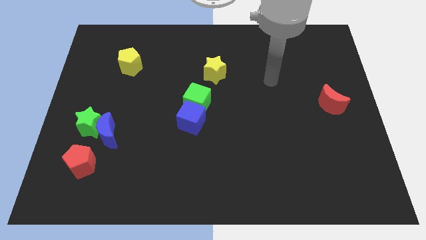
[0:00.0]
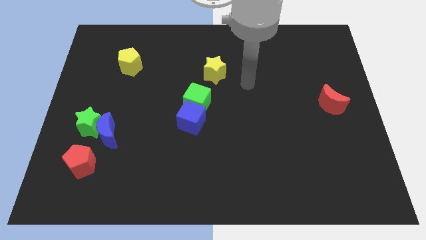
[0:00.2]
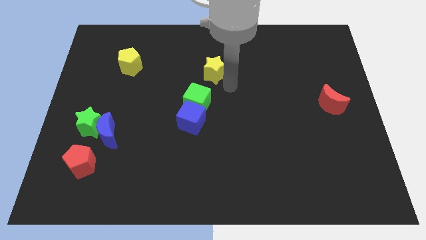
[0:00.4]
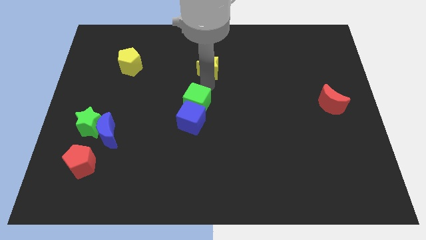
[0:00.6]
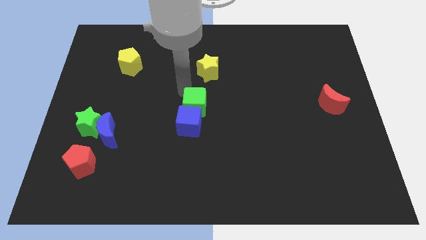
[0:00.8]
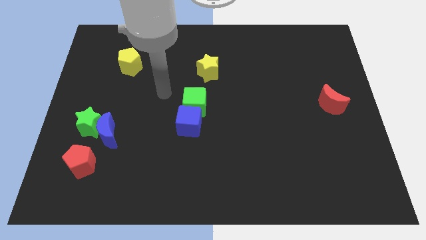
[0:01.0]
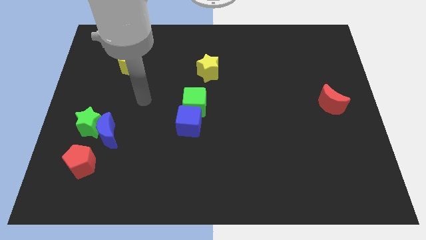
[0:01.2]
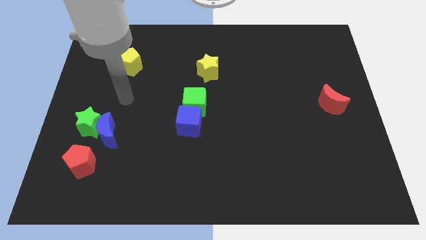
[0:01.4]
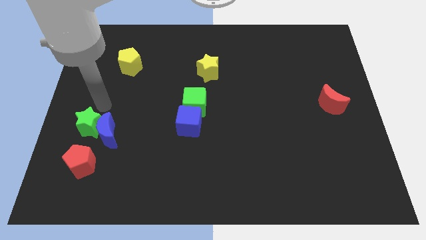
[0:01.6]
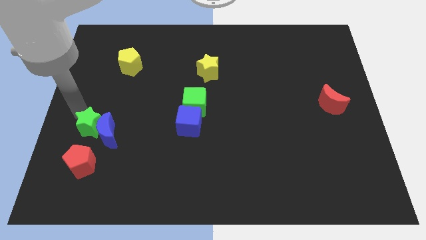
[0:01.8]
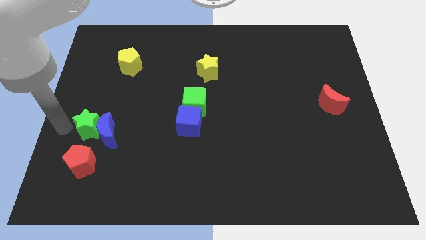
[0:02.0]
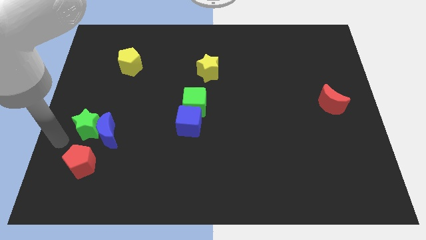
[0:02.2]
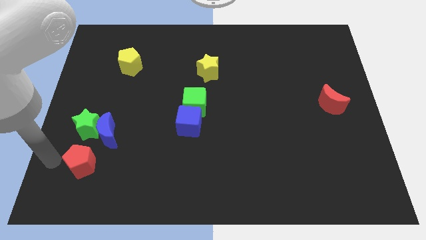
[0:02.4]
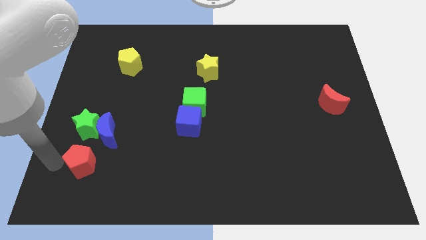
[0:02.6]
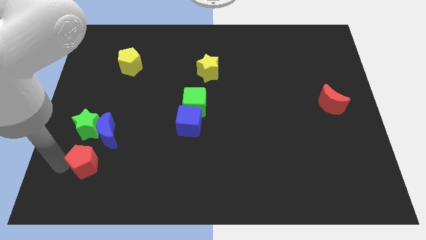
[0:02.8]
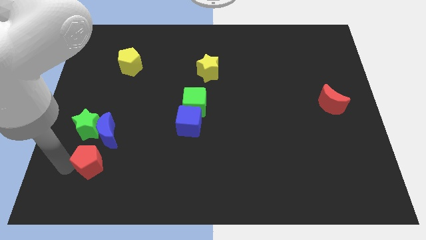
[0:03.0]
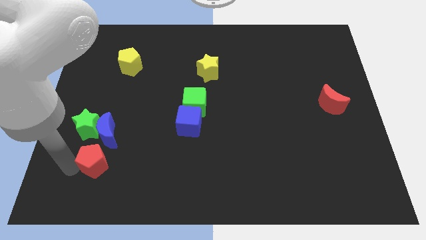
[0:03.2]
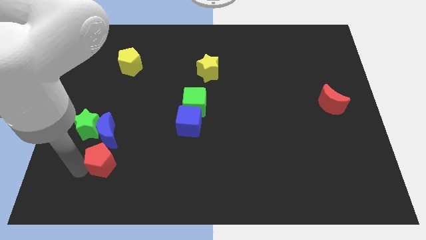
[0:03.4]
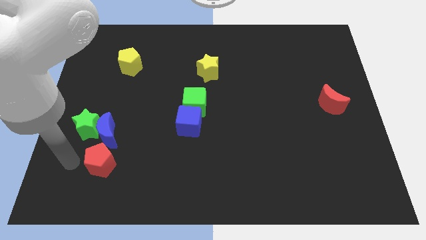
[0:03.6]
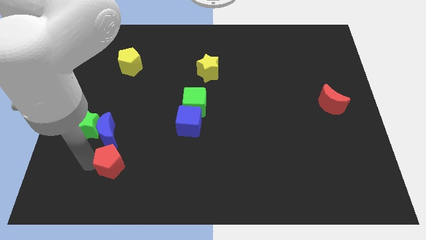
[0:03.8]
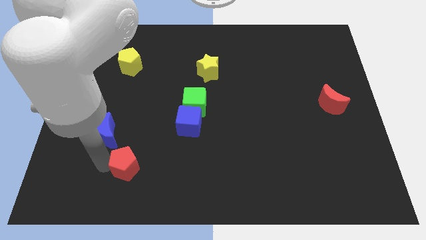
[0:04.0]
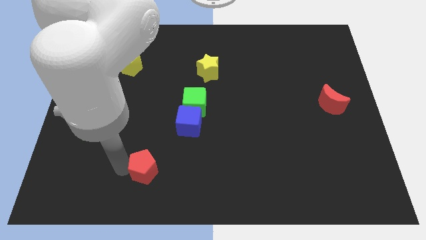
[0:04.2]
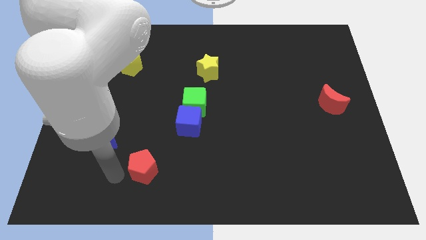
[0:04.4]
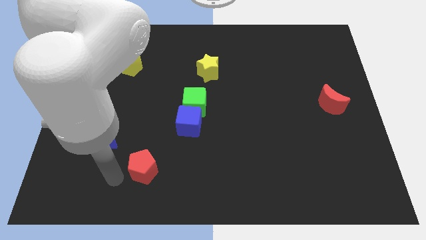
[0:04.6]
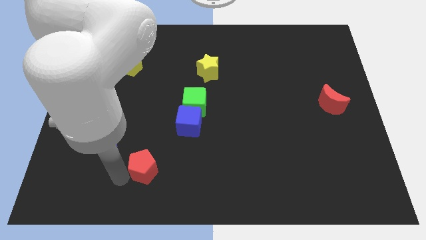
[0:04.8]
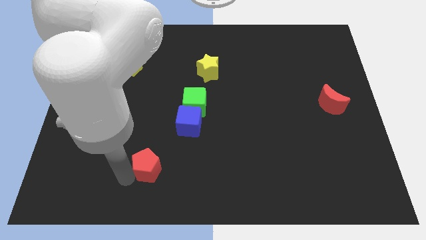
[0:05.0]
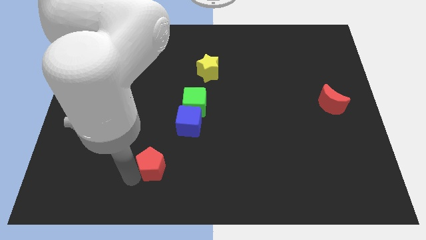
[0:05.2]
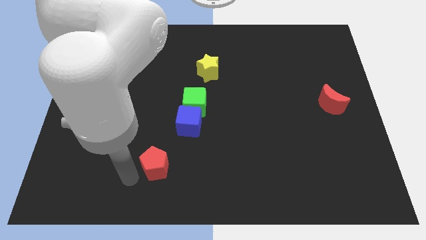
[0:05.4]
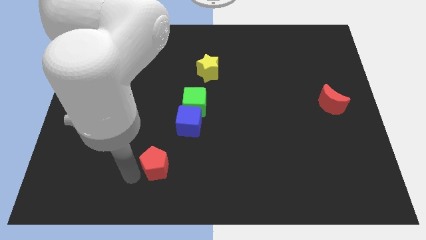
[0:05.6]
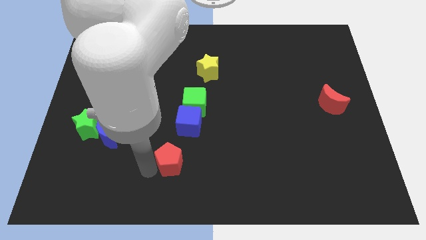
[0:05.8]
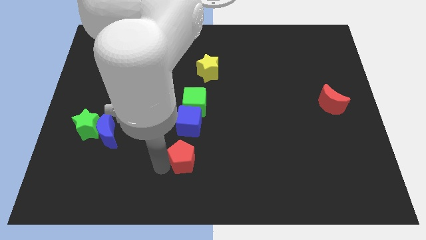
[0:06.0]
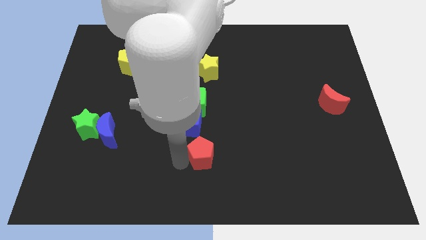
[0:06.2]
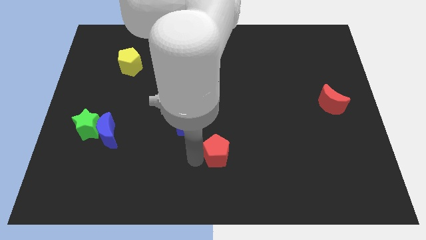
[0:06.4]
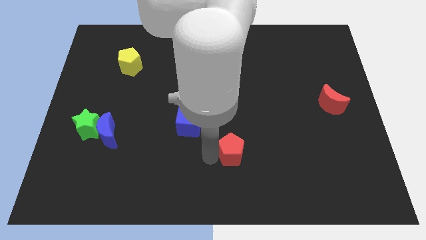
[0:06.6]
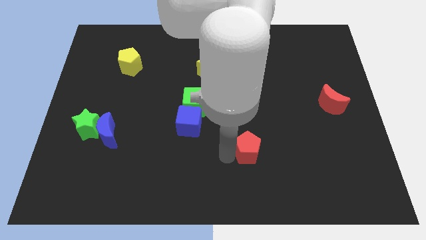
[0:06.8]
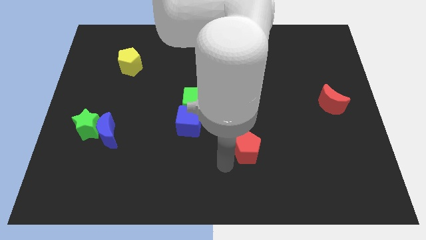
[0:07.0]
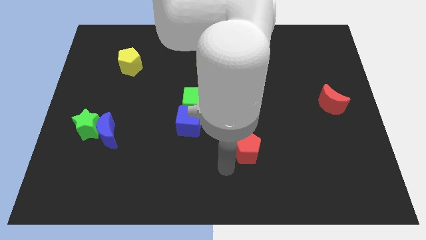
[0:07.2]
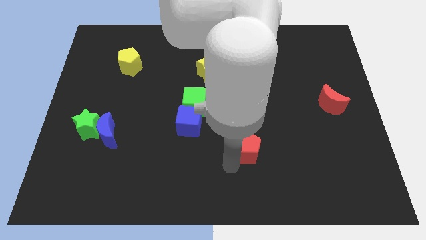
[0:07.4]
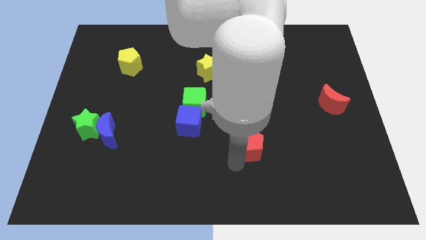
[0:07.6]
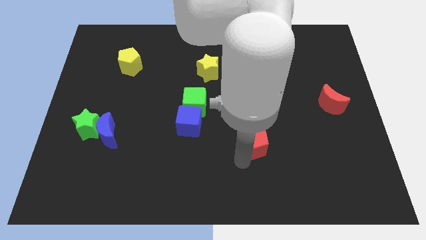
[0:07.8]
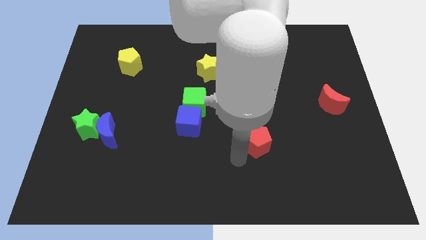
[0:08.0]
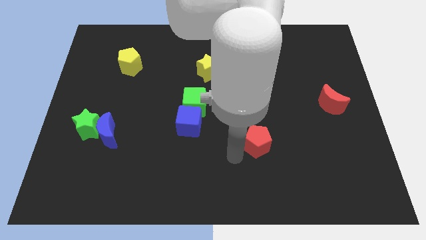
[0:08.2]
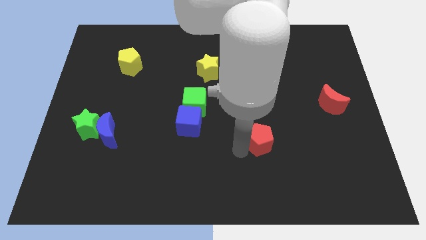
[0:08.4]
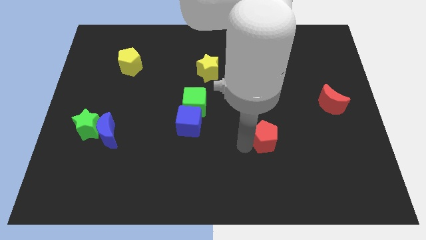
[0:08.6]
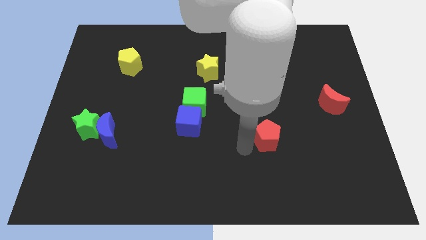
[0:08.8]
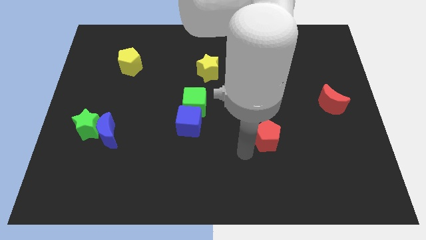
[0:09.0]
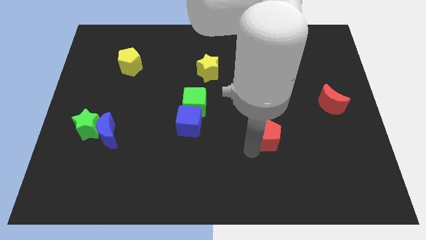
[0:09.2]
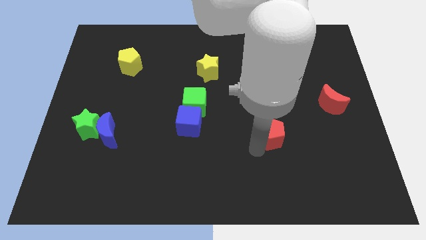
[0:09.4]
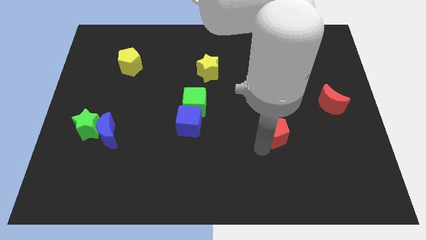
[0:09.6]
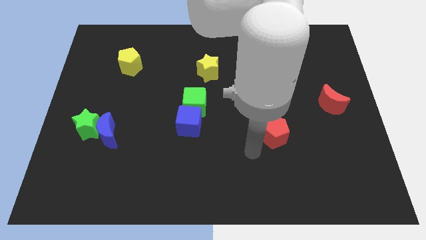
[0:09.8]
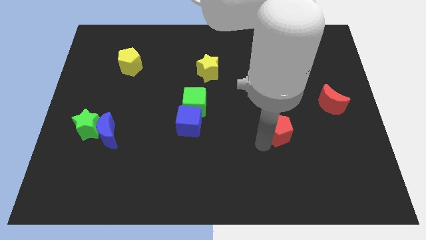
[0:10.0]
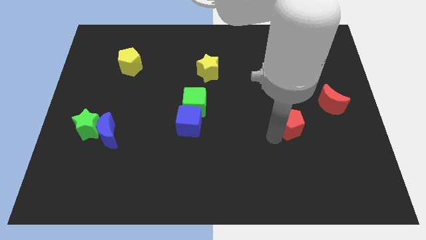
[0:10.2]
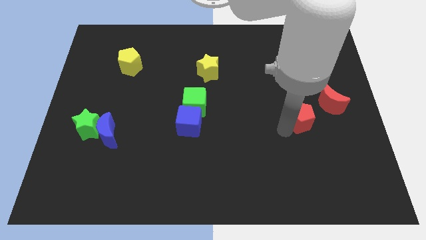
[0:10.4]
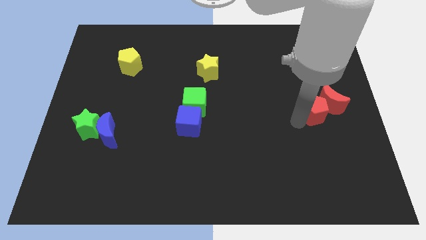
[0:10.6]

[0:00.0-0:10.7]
slide the red pentagon towards the red moon

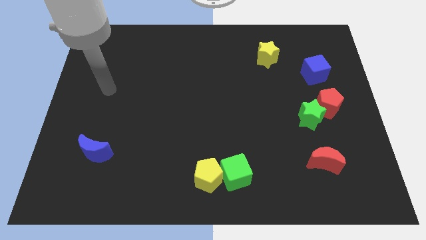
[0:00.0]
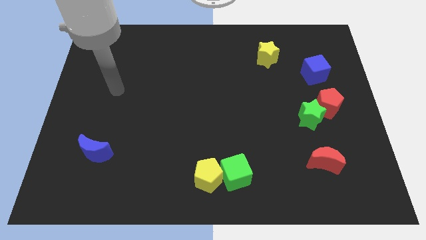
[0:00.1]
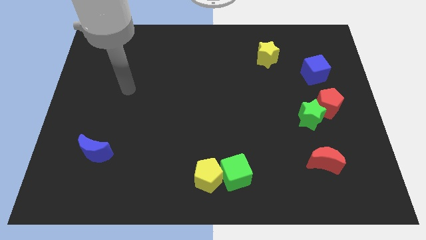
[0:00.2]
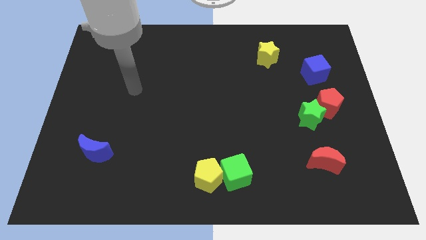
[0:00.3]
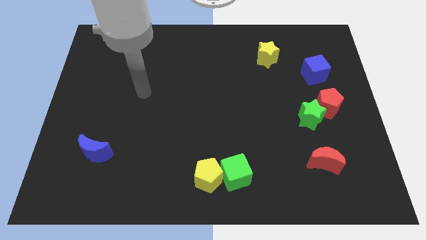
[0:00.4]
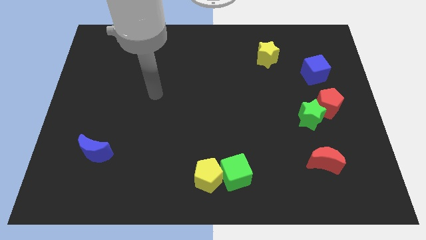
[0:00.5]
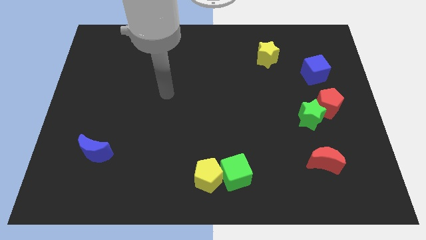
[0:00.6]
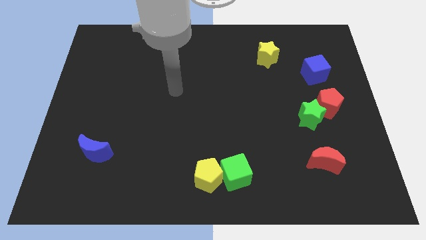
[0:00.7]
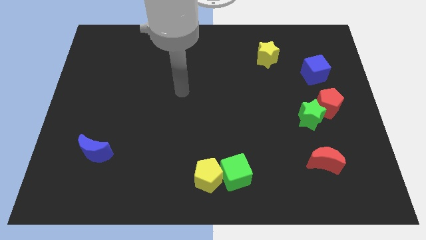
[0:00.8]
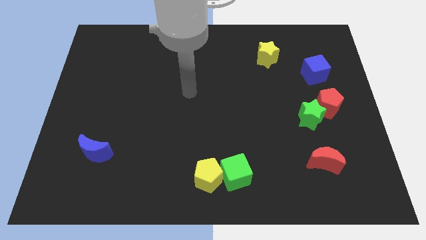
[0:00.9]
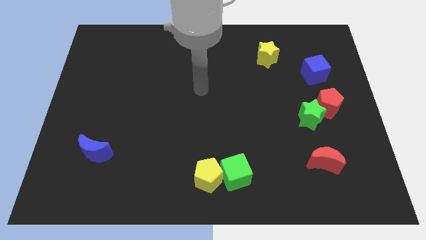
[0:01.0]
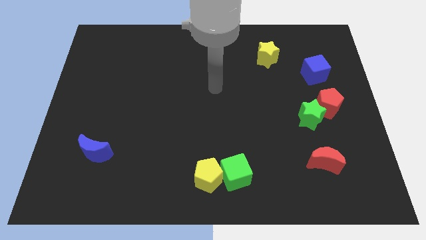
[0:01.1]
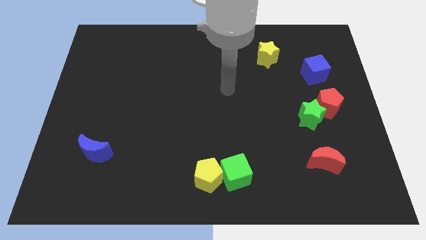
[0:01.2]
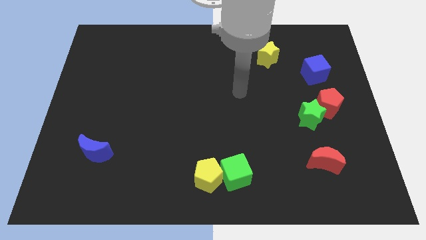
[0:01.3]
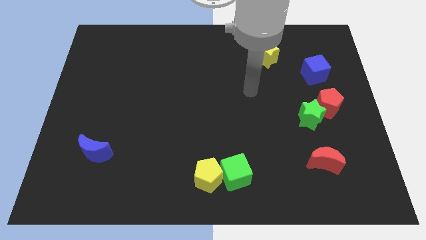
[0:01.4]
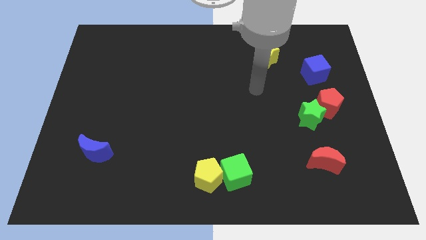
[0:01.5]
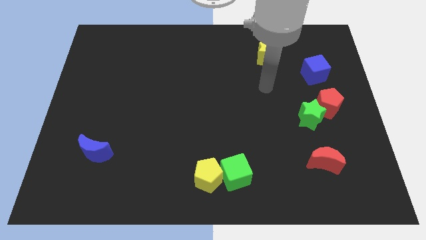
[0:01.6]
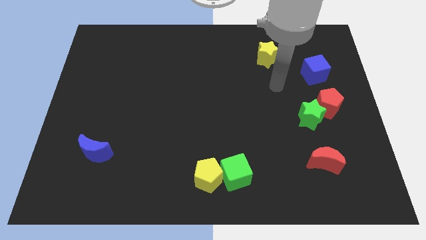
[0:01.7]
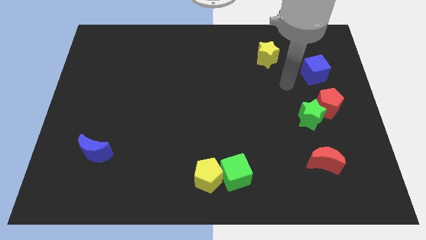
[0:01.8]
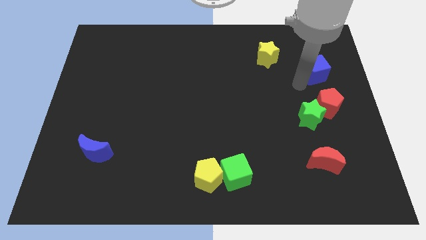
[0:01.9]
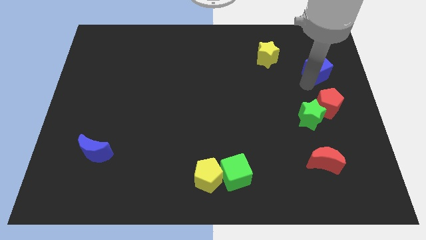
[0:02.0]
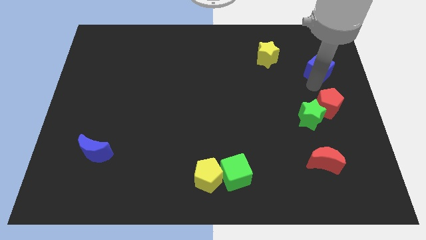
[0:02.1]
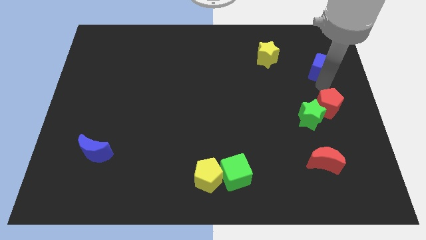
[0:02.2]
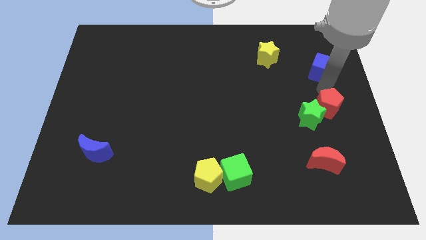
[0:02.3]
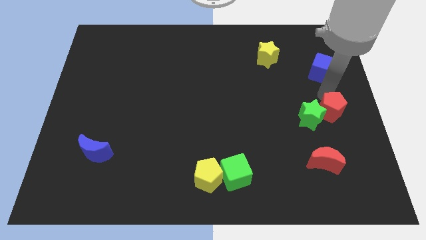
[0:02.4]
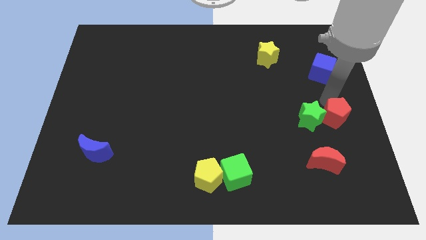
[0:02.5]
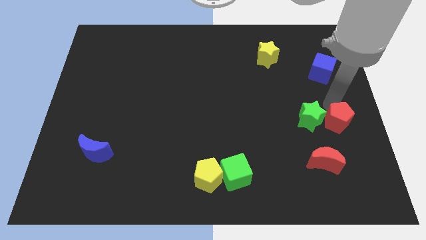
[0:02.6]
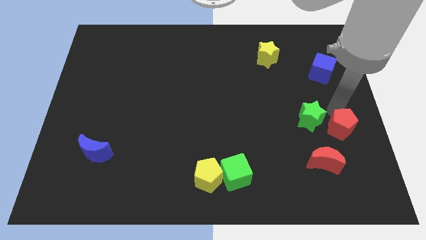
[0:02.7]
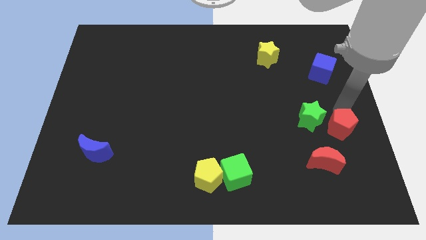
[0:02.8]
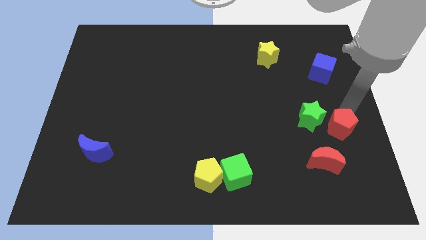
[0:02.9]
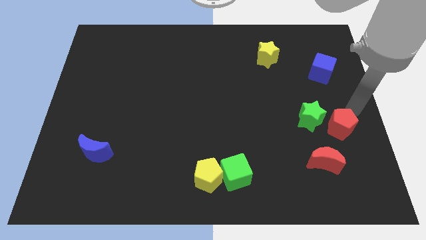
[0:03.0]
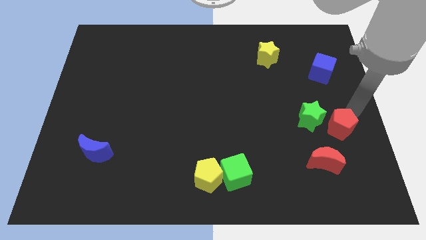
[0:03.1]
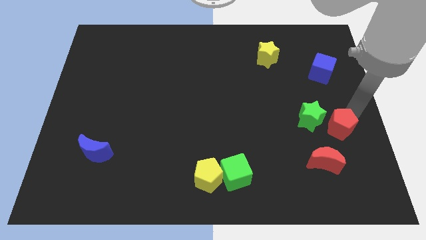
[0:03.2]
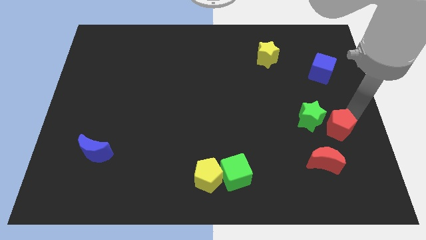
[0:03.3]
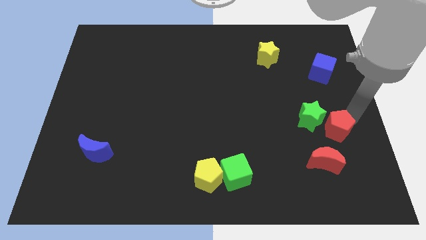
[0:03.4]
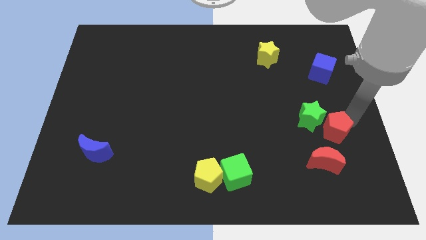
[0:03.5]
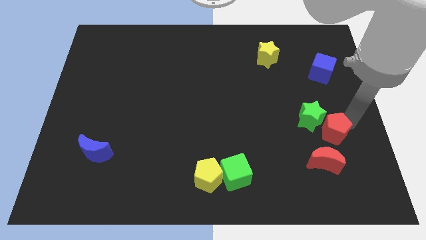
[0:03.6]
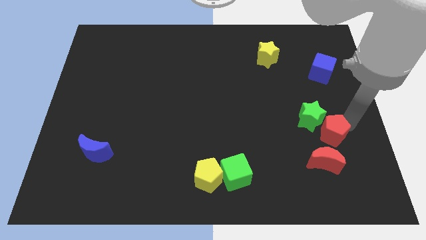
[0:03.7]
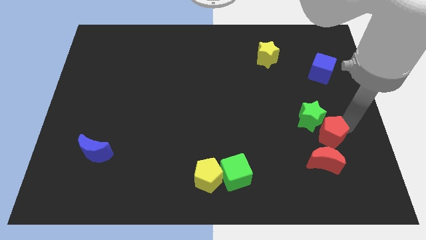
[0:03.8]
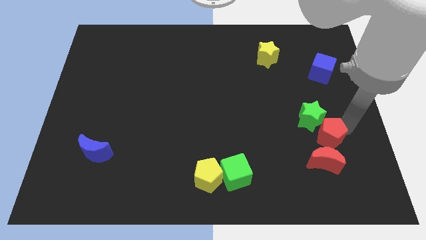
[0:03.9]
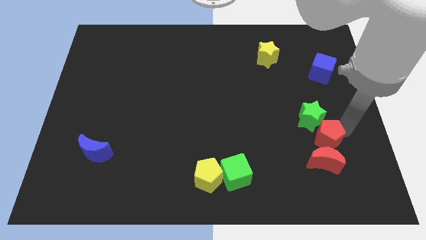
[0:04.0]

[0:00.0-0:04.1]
slide the red pentagon to the red moon
